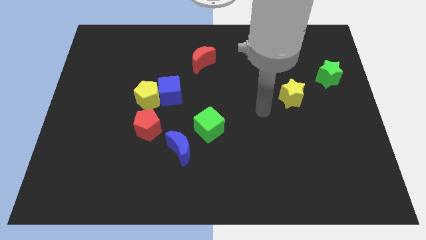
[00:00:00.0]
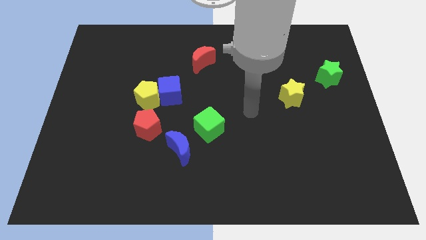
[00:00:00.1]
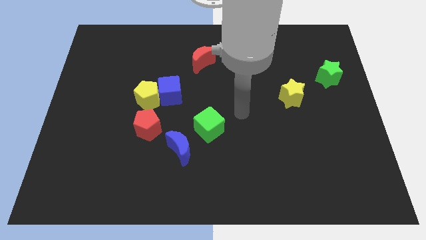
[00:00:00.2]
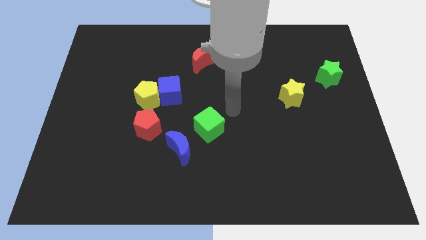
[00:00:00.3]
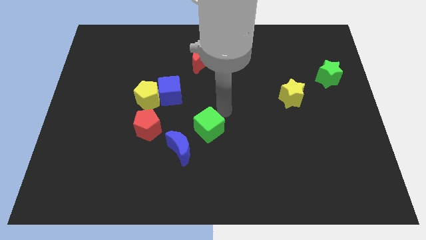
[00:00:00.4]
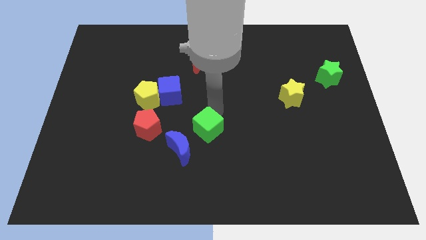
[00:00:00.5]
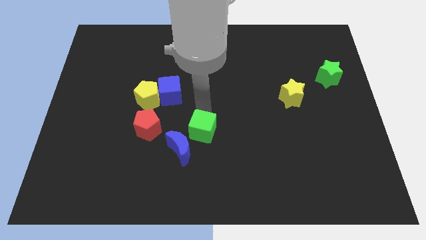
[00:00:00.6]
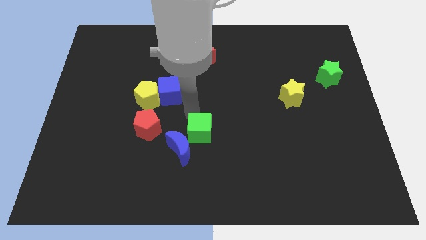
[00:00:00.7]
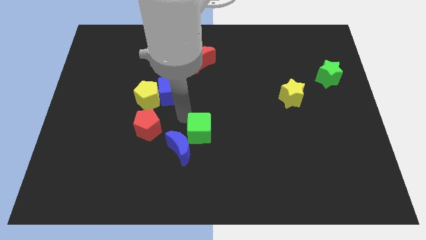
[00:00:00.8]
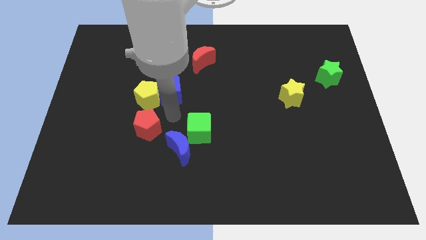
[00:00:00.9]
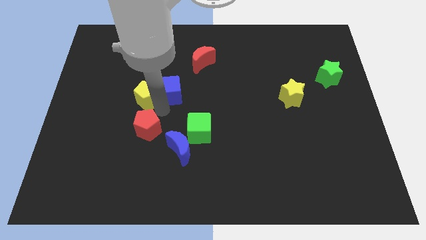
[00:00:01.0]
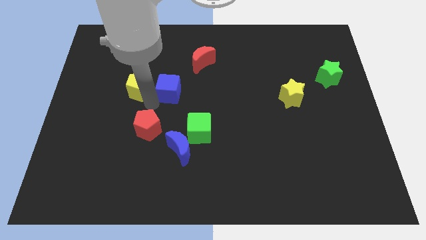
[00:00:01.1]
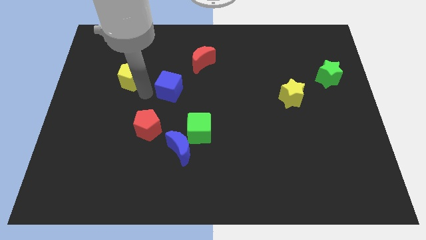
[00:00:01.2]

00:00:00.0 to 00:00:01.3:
move the blue cube away from the yellow pentagon

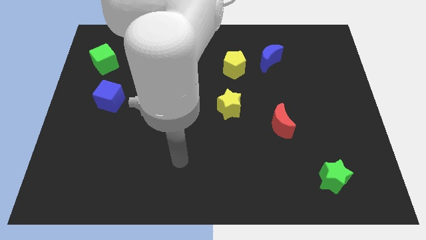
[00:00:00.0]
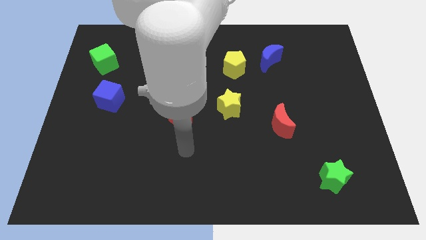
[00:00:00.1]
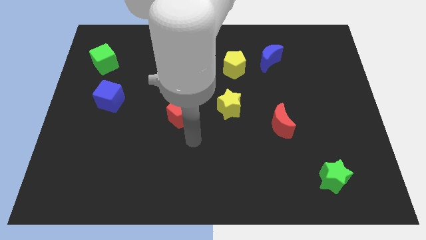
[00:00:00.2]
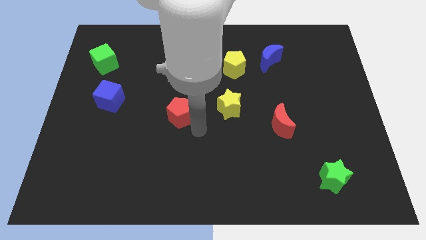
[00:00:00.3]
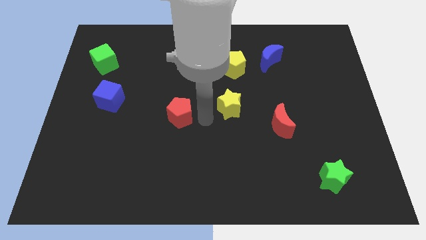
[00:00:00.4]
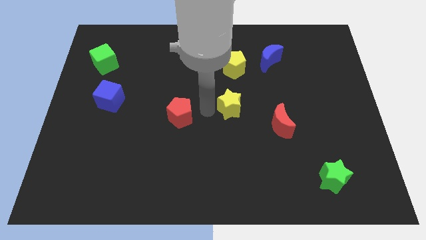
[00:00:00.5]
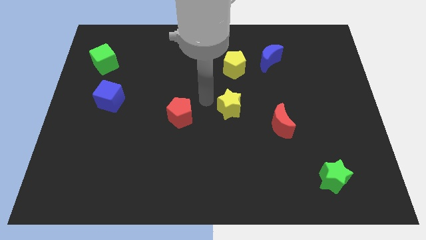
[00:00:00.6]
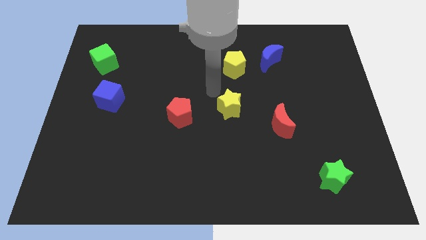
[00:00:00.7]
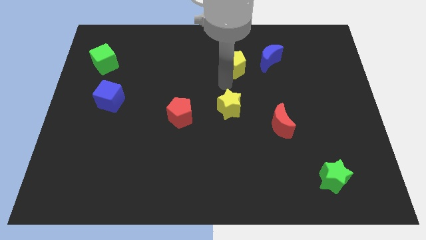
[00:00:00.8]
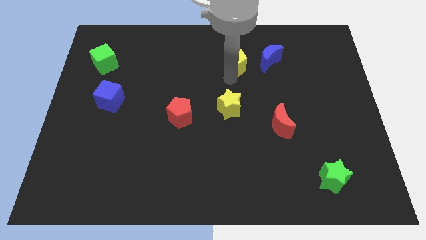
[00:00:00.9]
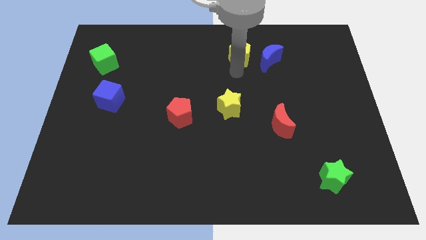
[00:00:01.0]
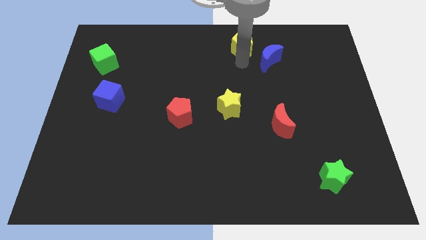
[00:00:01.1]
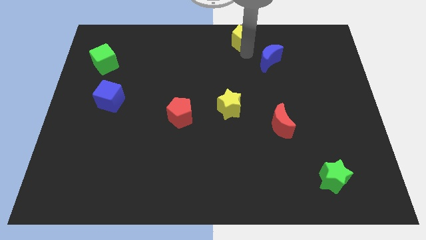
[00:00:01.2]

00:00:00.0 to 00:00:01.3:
separate the blue moon from the yellow pentagon

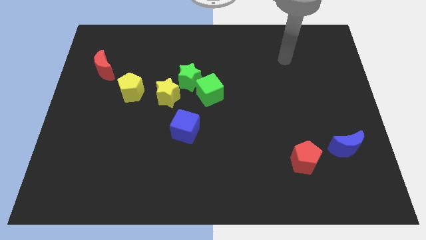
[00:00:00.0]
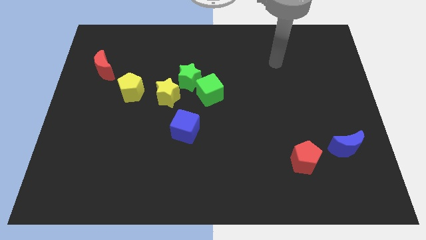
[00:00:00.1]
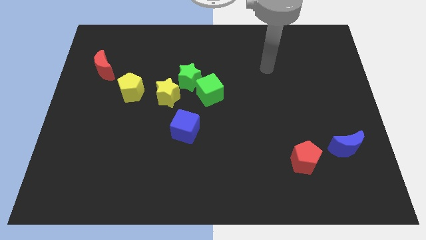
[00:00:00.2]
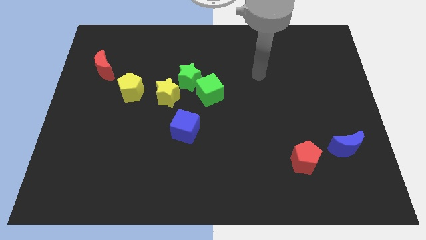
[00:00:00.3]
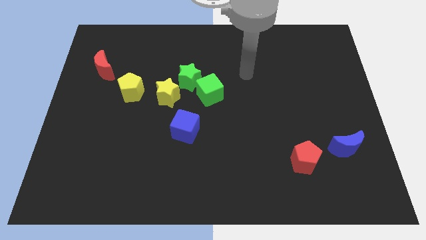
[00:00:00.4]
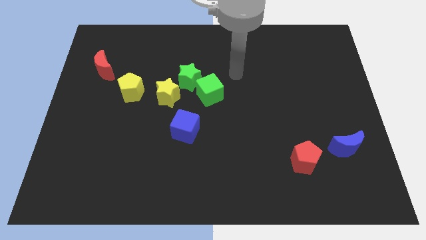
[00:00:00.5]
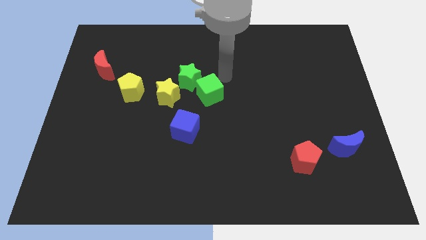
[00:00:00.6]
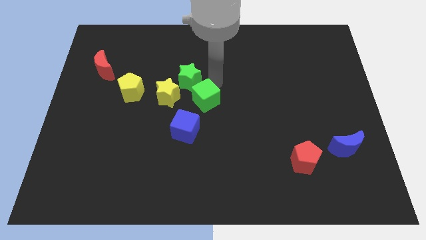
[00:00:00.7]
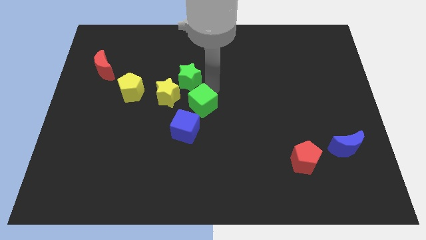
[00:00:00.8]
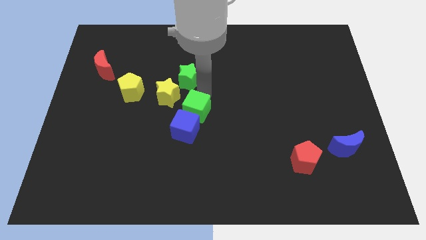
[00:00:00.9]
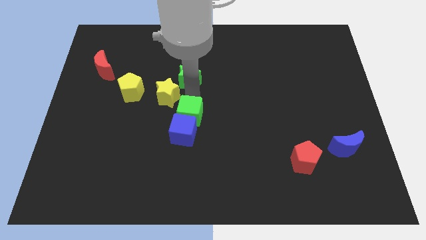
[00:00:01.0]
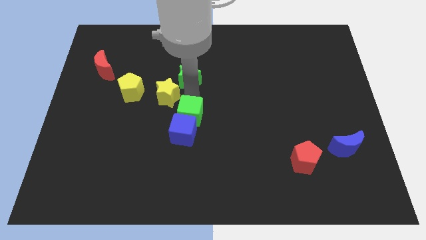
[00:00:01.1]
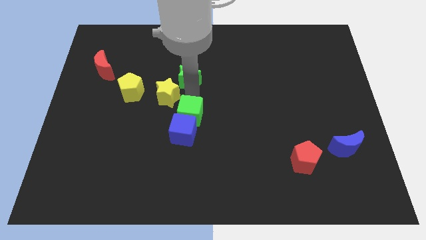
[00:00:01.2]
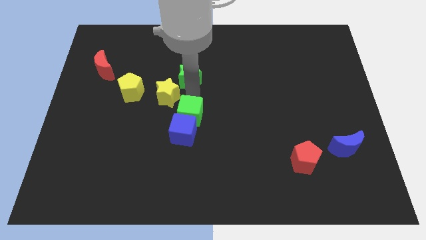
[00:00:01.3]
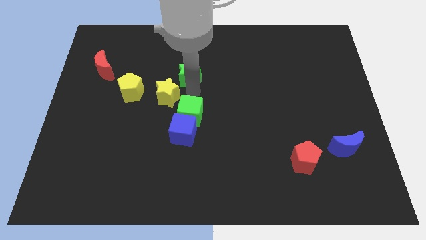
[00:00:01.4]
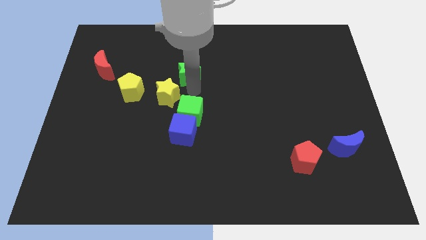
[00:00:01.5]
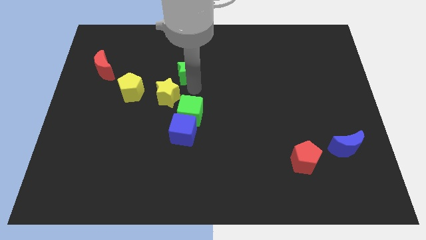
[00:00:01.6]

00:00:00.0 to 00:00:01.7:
move the green star away from the green cube and yellow star

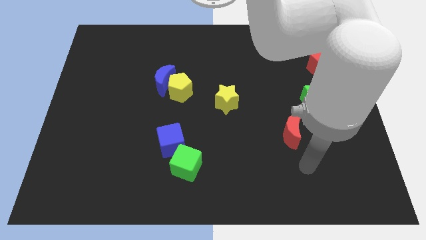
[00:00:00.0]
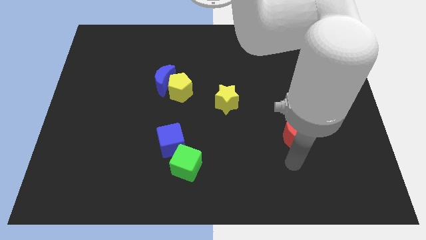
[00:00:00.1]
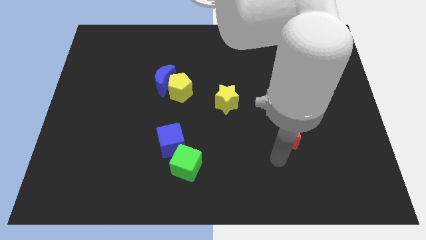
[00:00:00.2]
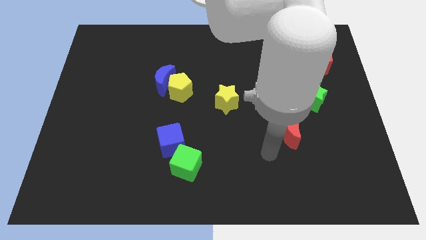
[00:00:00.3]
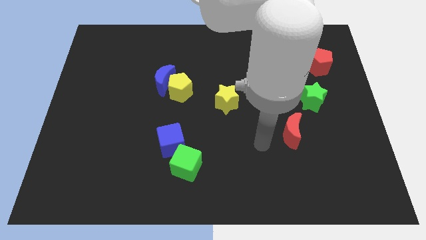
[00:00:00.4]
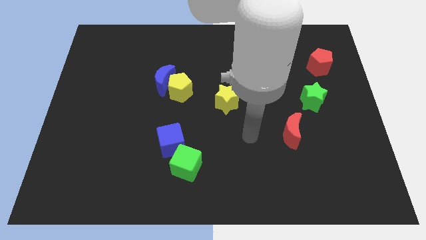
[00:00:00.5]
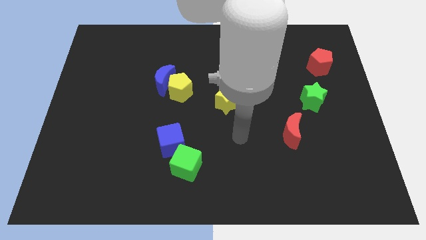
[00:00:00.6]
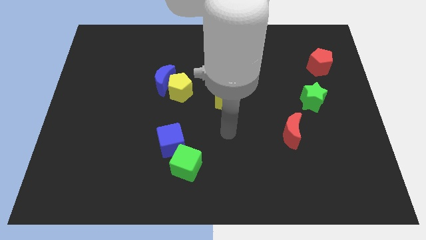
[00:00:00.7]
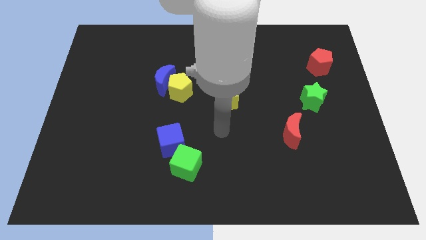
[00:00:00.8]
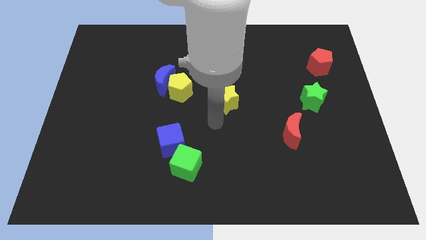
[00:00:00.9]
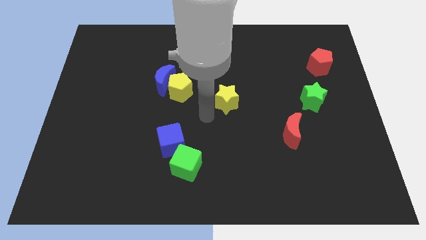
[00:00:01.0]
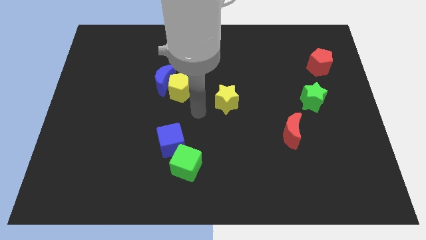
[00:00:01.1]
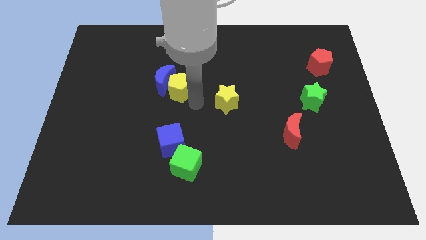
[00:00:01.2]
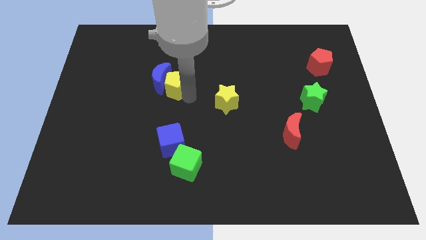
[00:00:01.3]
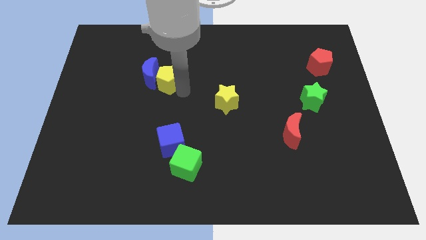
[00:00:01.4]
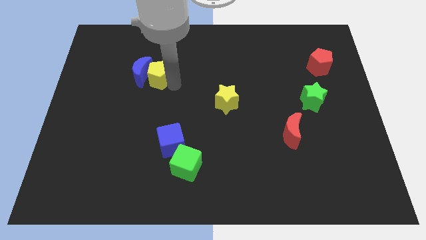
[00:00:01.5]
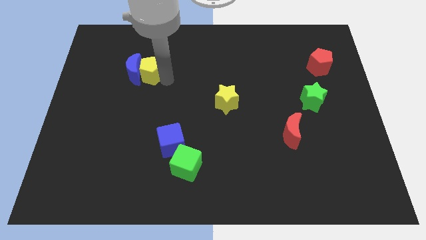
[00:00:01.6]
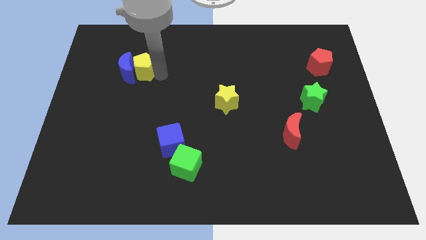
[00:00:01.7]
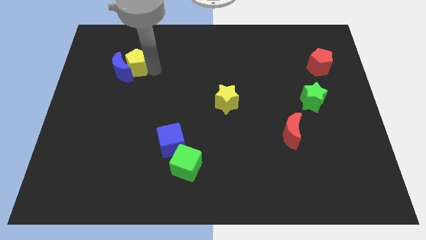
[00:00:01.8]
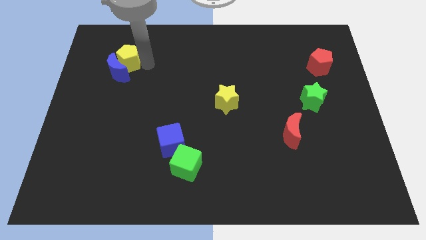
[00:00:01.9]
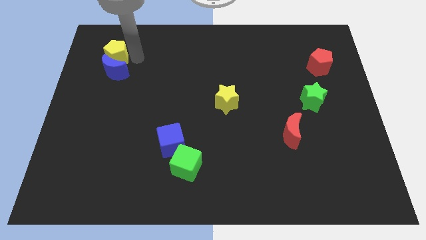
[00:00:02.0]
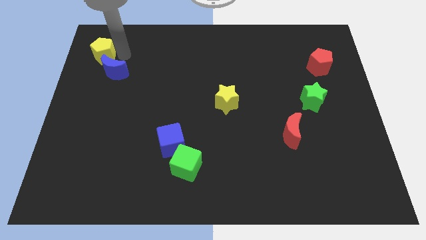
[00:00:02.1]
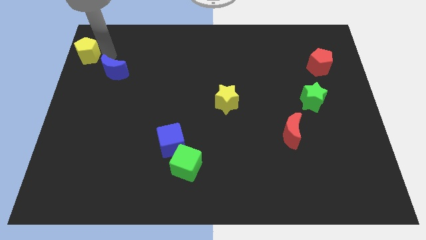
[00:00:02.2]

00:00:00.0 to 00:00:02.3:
move the blue moon away from the yellow pentagon

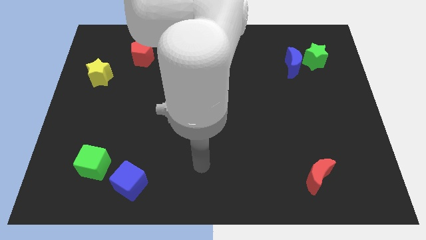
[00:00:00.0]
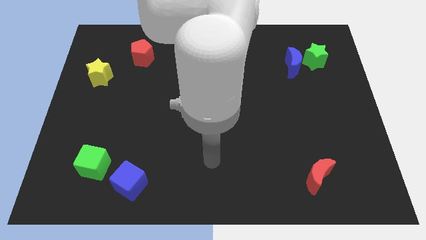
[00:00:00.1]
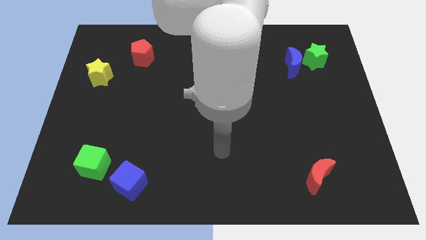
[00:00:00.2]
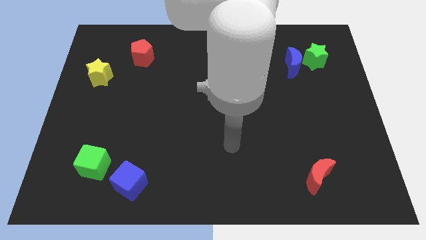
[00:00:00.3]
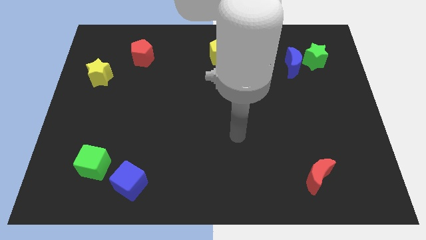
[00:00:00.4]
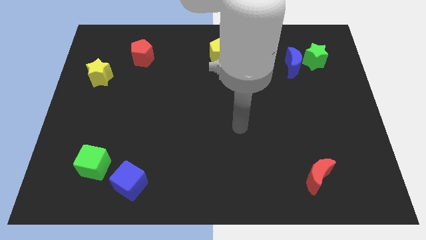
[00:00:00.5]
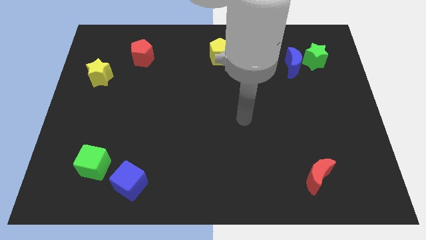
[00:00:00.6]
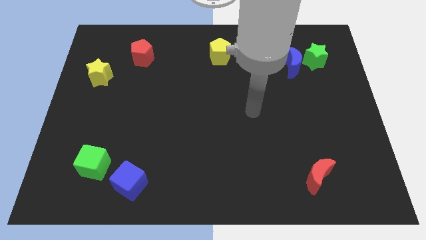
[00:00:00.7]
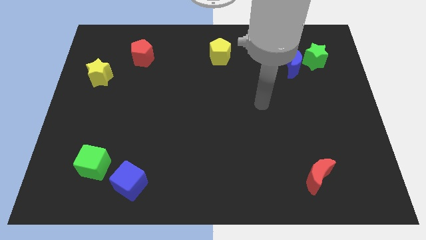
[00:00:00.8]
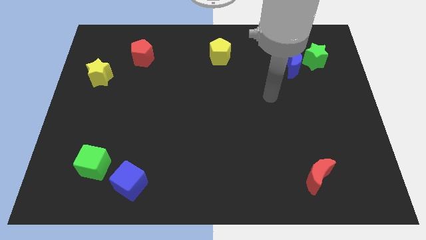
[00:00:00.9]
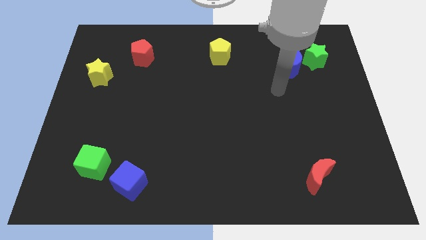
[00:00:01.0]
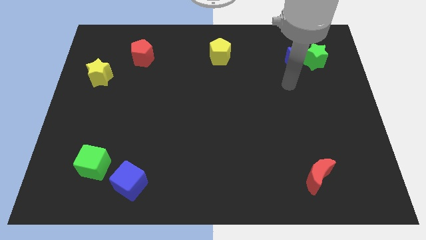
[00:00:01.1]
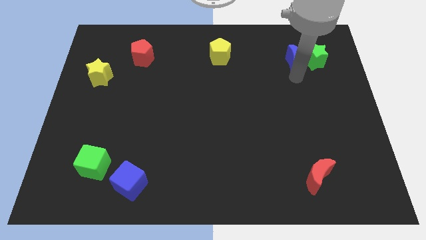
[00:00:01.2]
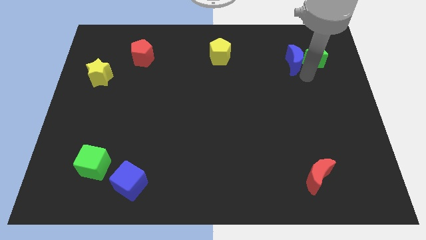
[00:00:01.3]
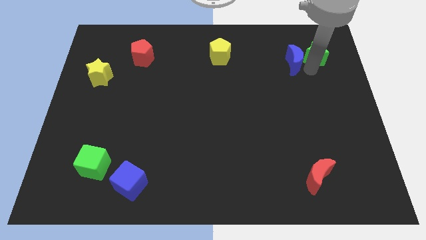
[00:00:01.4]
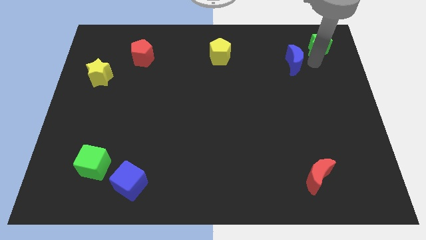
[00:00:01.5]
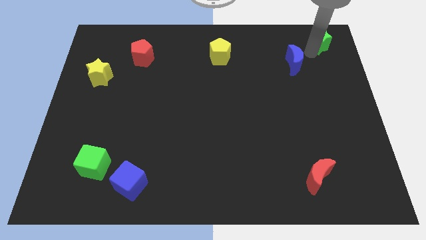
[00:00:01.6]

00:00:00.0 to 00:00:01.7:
move the blue moon away from the green star

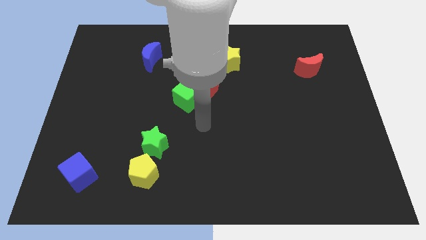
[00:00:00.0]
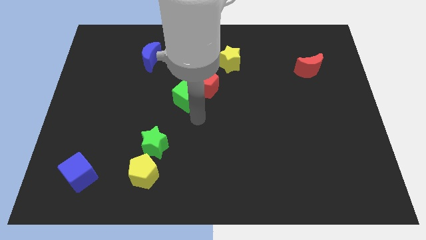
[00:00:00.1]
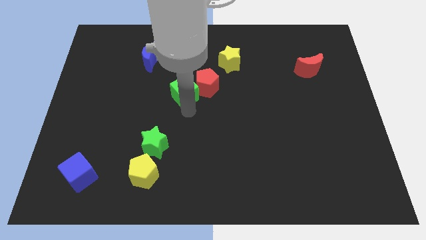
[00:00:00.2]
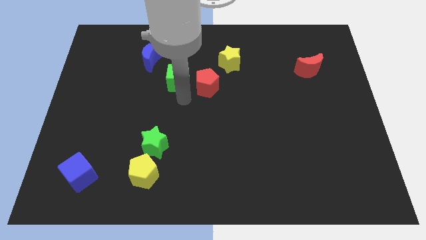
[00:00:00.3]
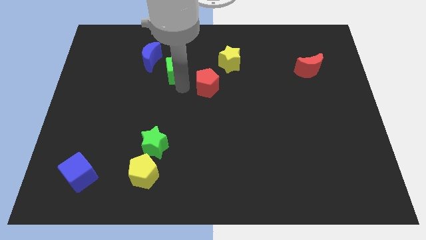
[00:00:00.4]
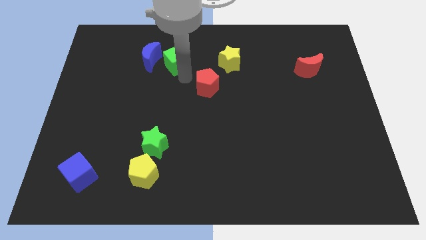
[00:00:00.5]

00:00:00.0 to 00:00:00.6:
pull the red pentagon apart from the green cube

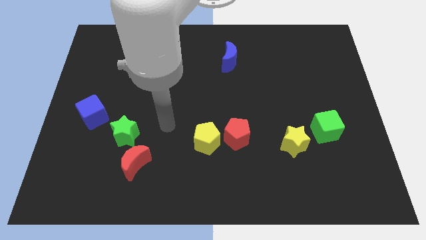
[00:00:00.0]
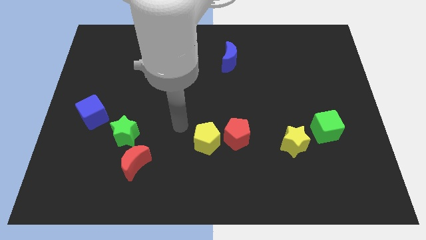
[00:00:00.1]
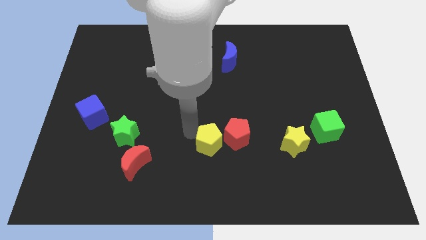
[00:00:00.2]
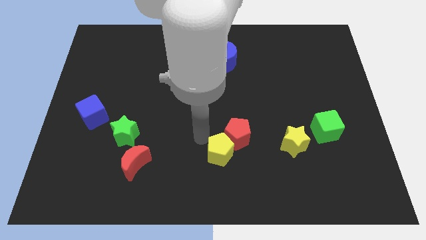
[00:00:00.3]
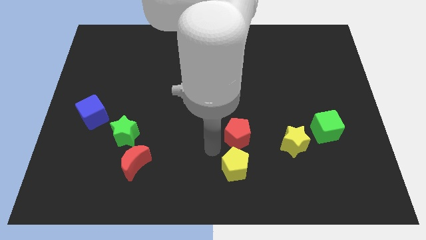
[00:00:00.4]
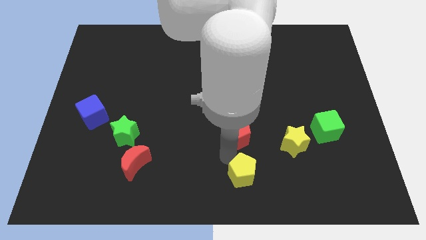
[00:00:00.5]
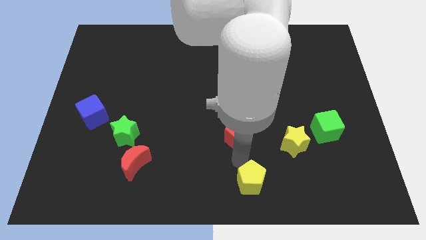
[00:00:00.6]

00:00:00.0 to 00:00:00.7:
move the red pentagon away from the yellow pentagon
